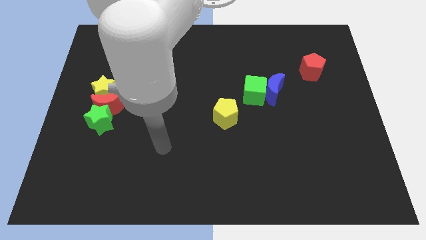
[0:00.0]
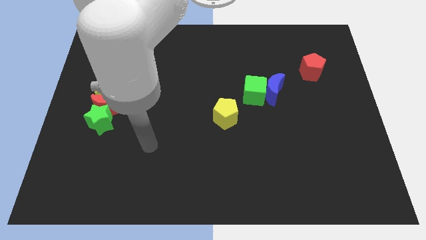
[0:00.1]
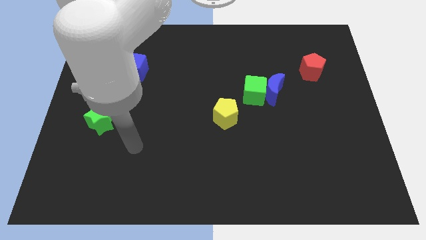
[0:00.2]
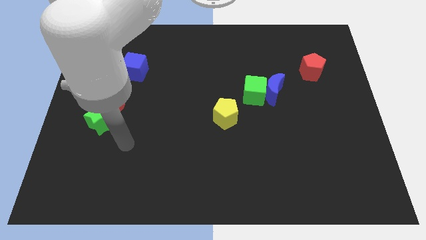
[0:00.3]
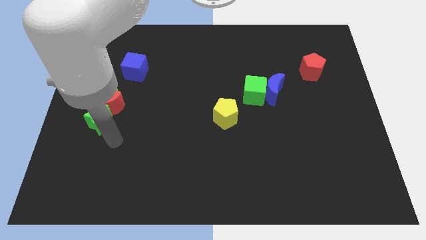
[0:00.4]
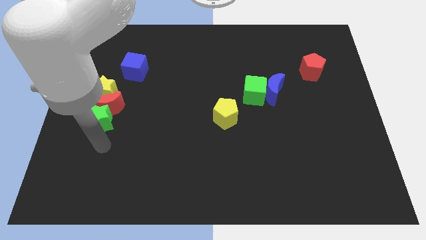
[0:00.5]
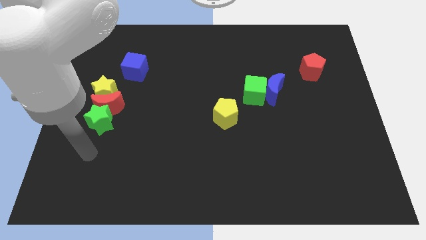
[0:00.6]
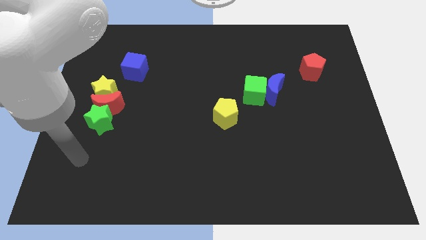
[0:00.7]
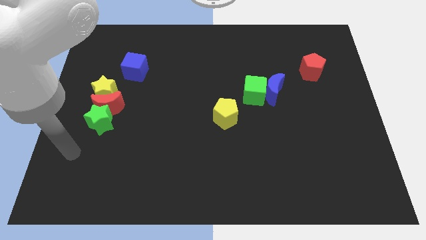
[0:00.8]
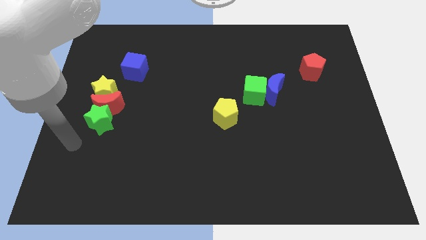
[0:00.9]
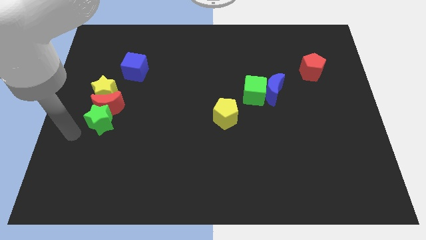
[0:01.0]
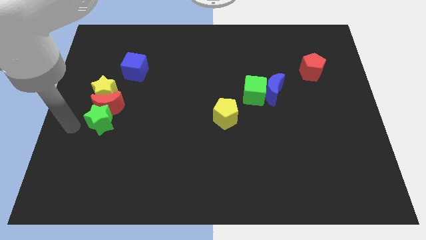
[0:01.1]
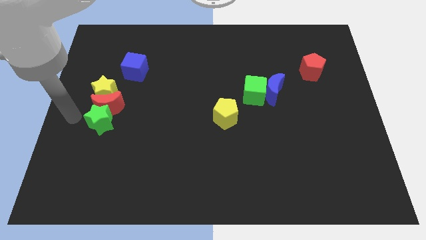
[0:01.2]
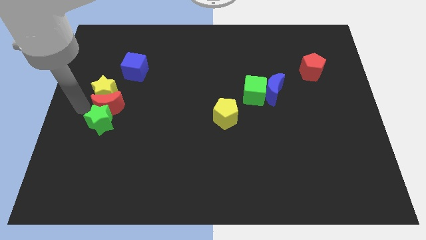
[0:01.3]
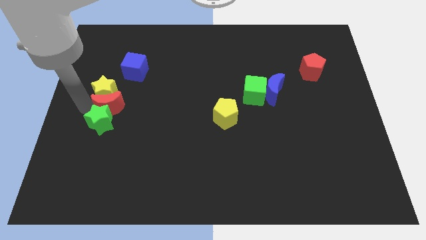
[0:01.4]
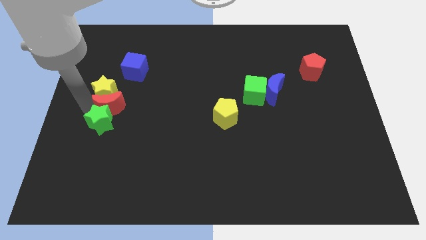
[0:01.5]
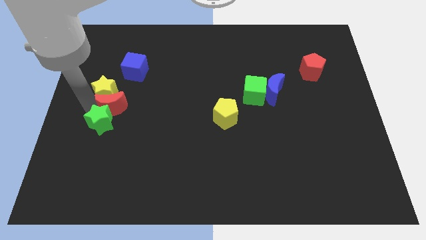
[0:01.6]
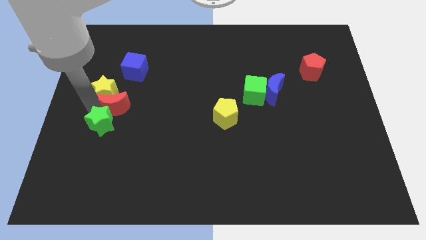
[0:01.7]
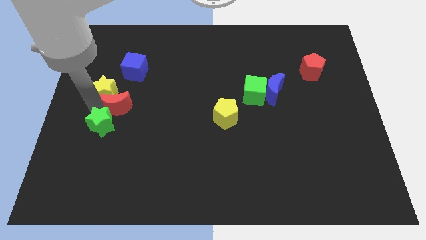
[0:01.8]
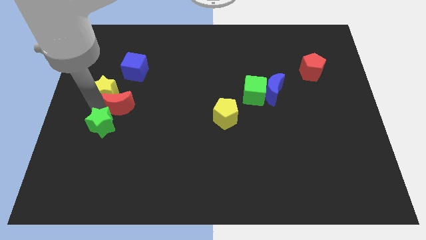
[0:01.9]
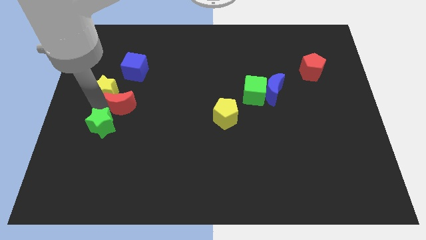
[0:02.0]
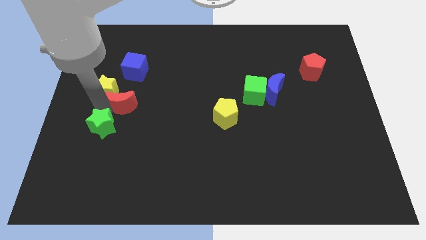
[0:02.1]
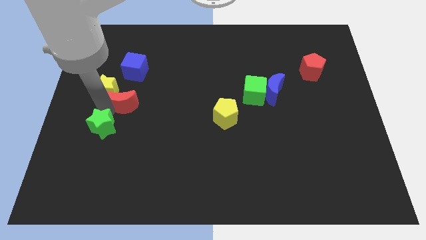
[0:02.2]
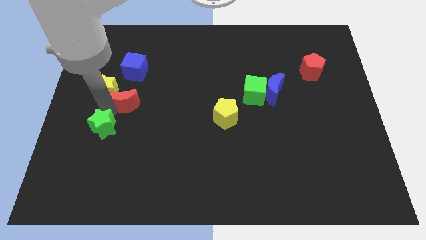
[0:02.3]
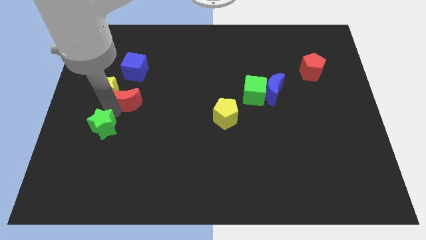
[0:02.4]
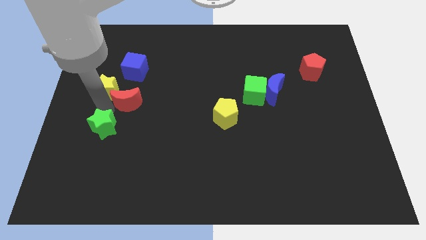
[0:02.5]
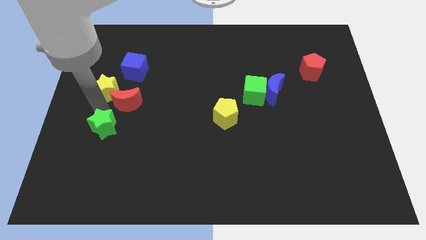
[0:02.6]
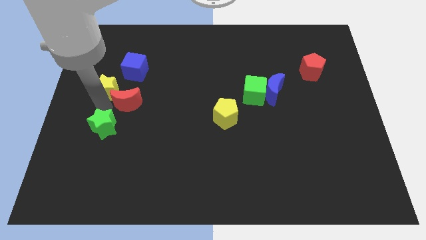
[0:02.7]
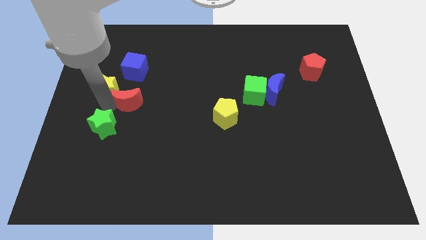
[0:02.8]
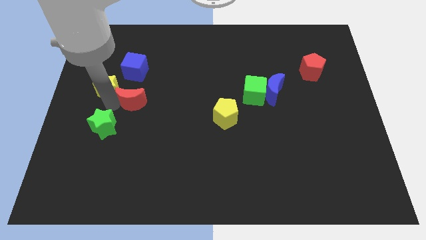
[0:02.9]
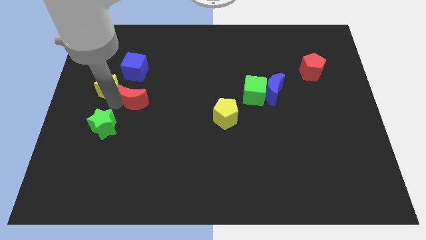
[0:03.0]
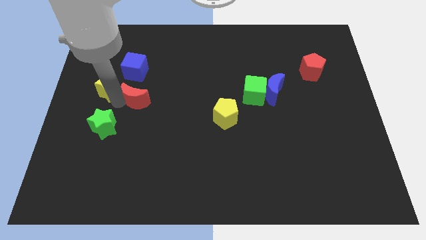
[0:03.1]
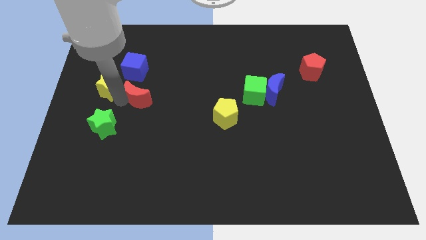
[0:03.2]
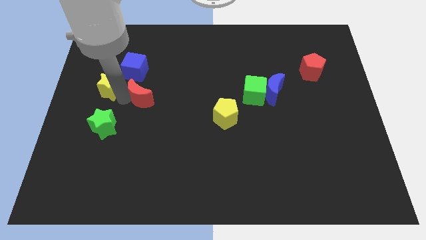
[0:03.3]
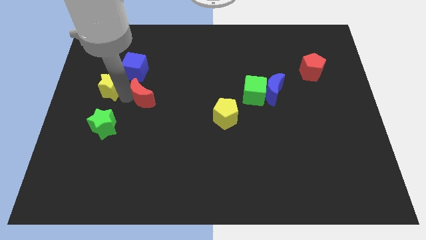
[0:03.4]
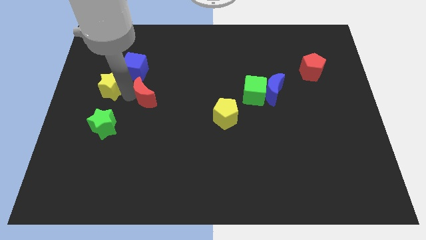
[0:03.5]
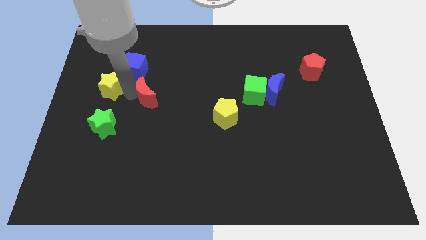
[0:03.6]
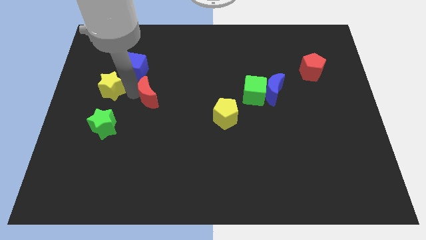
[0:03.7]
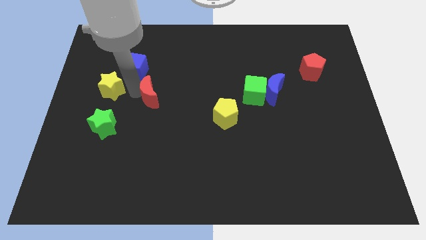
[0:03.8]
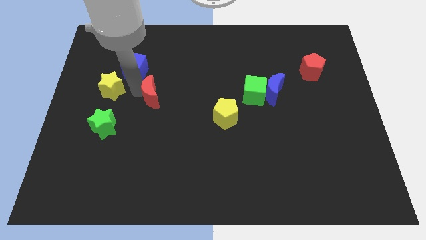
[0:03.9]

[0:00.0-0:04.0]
pull the red moon apart from the green star and yellow star

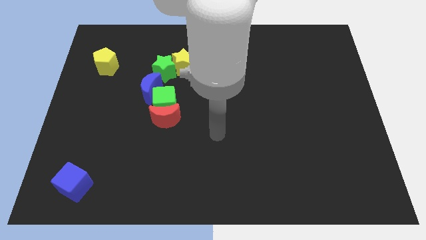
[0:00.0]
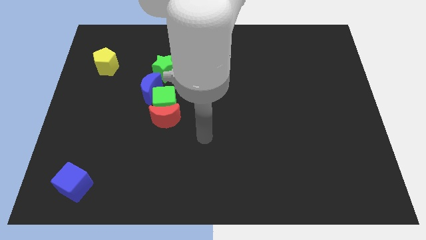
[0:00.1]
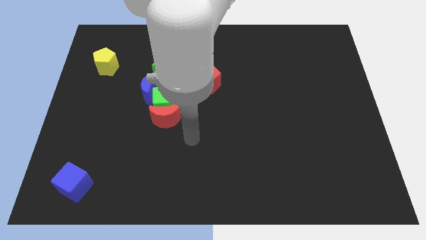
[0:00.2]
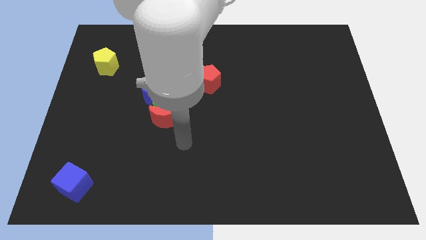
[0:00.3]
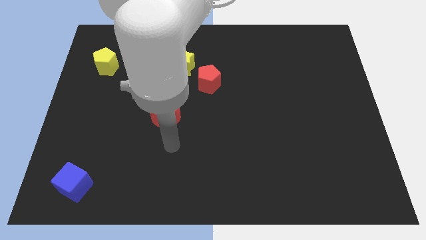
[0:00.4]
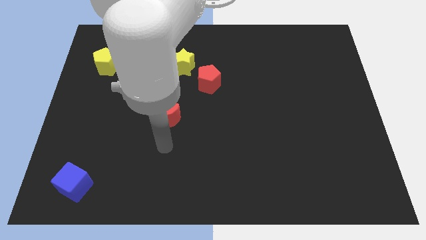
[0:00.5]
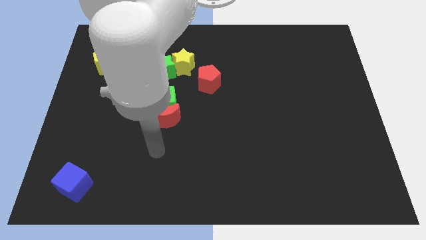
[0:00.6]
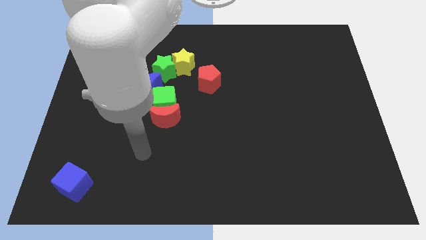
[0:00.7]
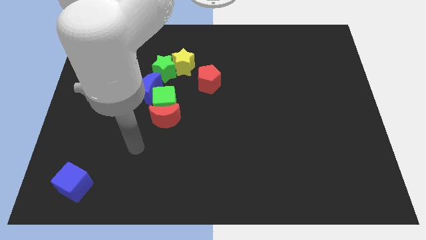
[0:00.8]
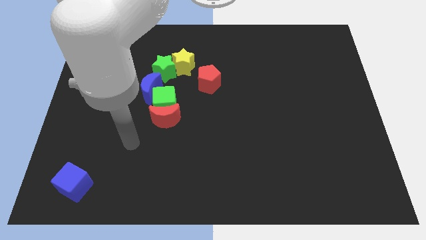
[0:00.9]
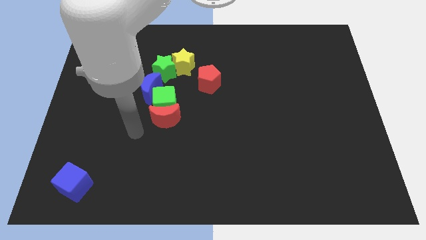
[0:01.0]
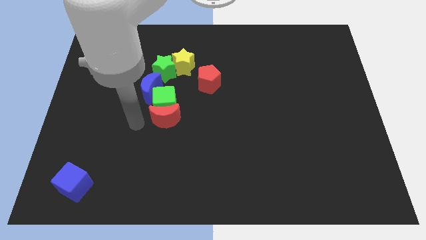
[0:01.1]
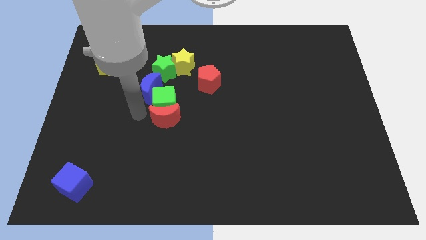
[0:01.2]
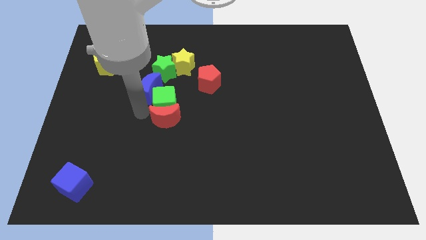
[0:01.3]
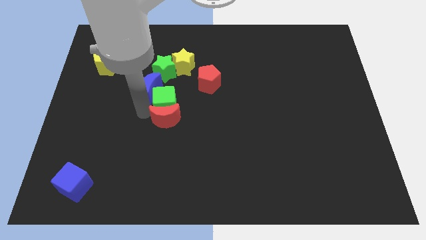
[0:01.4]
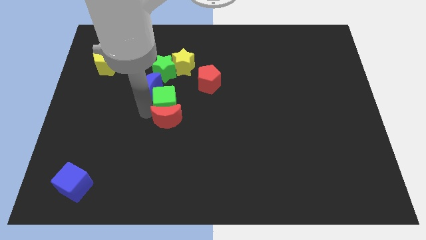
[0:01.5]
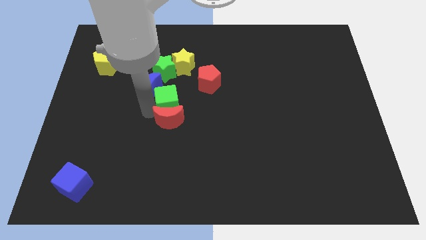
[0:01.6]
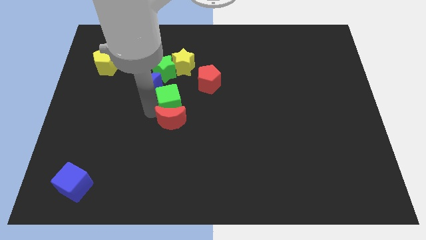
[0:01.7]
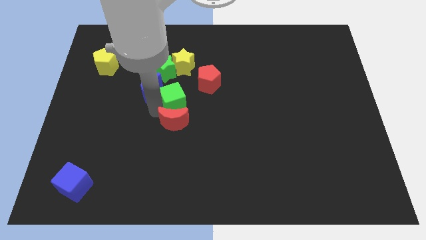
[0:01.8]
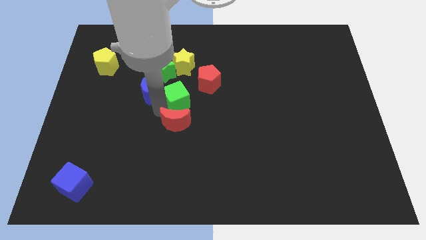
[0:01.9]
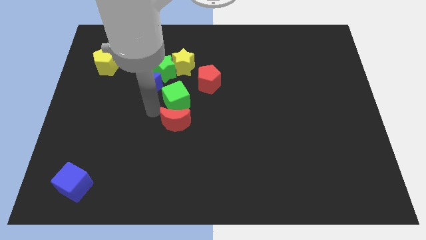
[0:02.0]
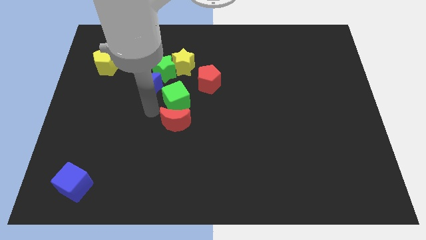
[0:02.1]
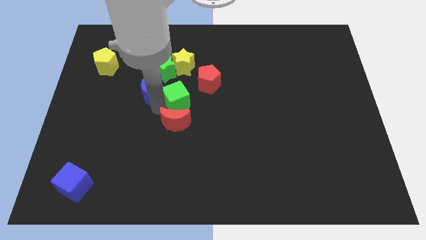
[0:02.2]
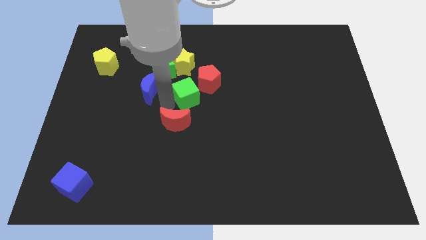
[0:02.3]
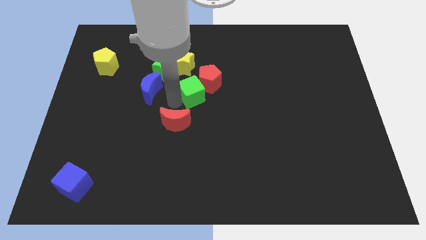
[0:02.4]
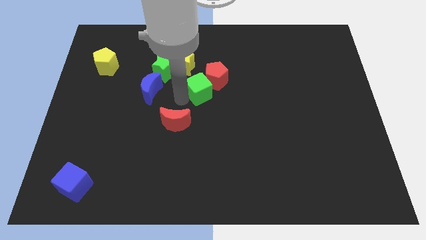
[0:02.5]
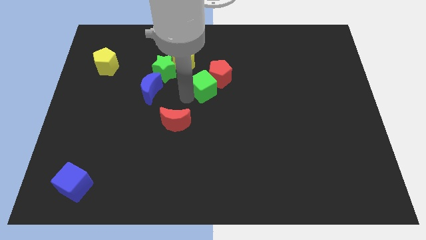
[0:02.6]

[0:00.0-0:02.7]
pull the green cube apart from the red moon and blue moon

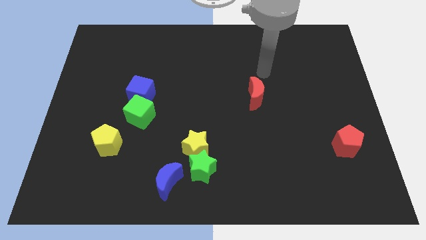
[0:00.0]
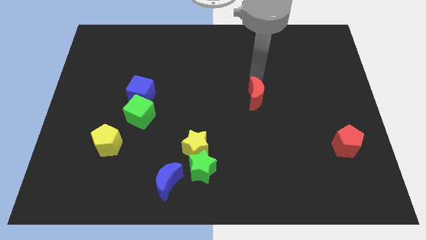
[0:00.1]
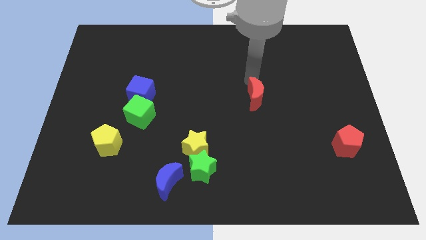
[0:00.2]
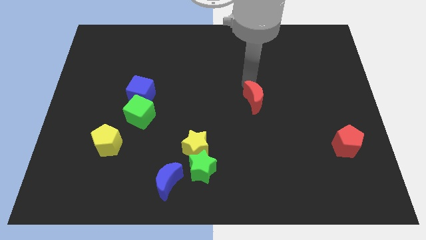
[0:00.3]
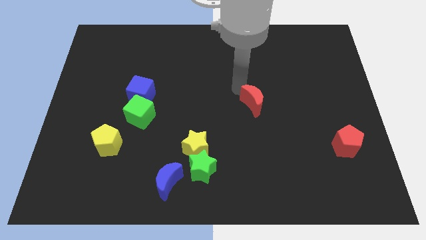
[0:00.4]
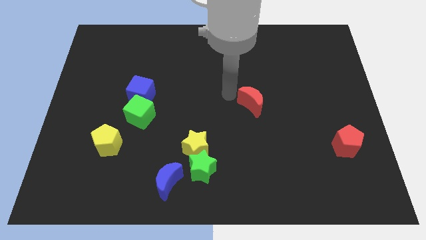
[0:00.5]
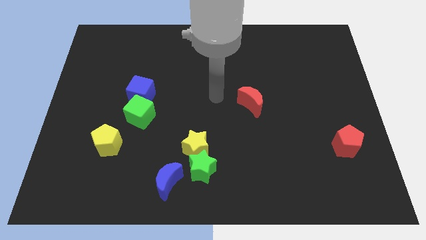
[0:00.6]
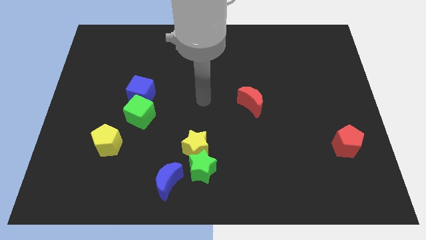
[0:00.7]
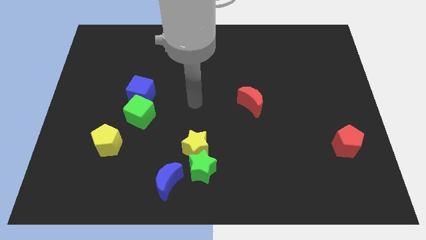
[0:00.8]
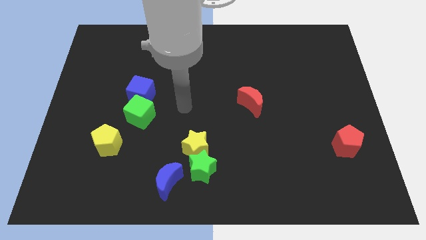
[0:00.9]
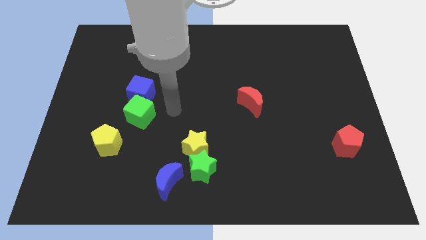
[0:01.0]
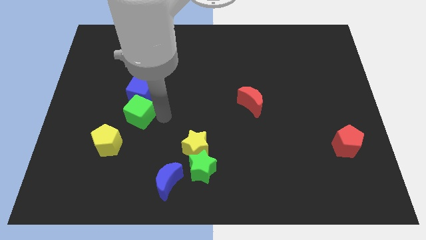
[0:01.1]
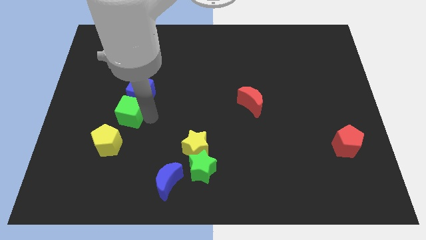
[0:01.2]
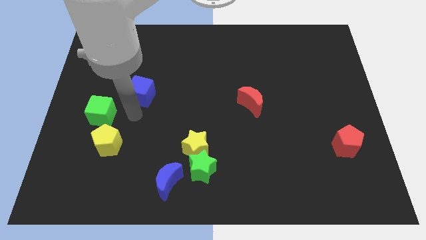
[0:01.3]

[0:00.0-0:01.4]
move the blue cube away from the green cube

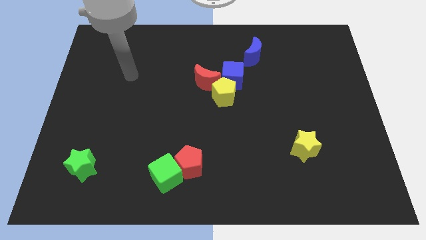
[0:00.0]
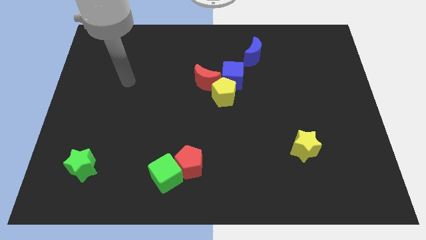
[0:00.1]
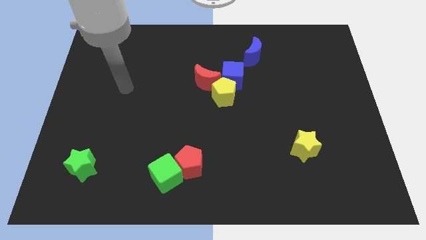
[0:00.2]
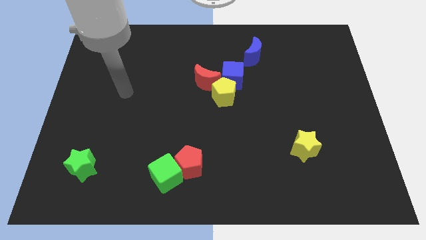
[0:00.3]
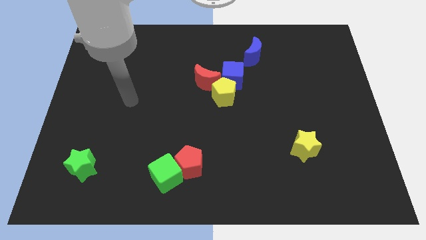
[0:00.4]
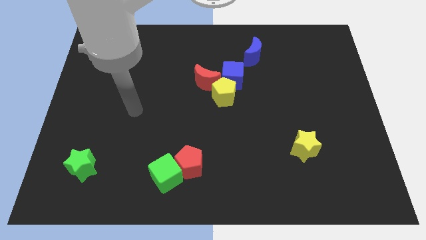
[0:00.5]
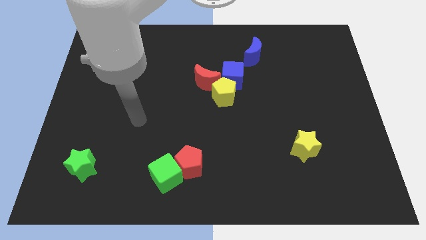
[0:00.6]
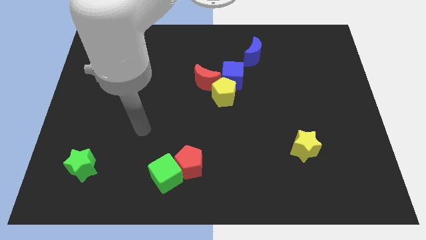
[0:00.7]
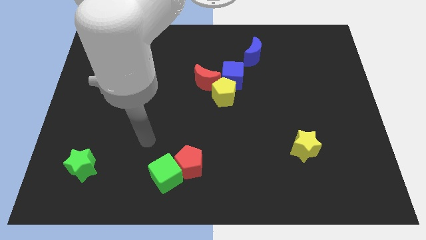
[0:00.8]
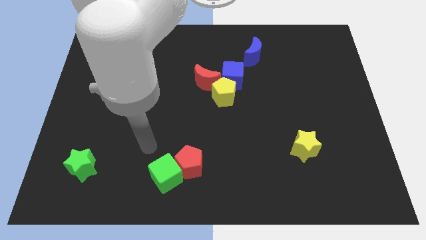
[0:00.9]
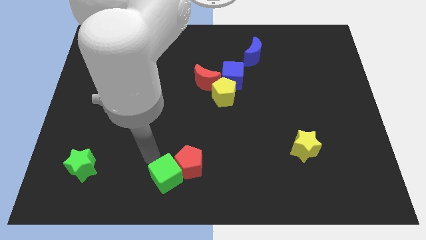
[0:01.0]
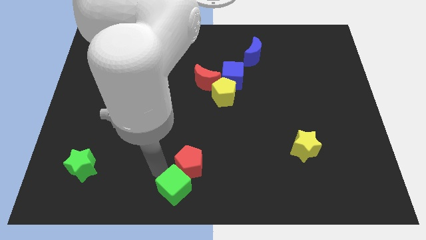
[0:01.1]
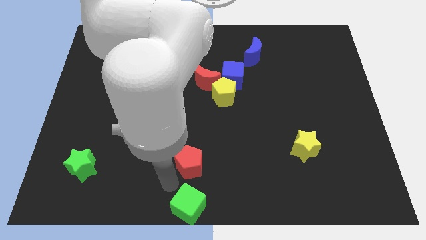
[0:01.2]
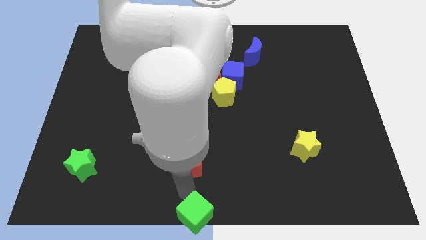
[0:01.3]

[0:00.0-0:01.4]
pull the red pentagon apart from the green cube
